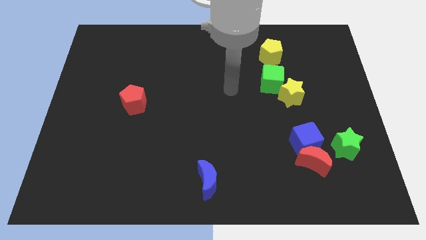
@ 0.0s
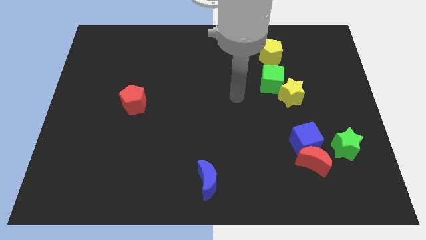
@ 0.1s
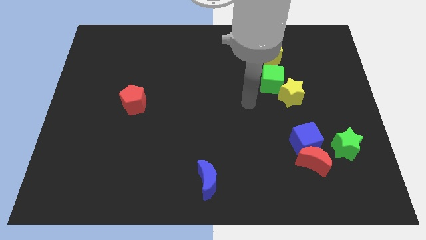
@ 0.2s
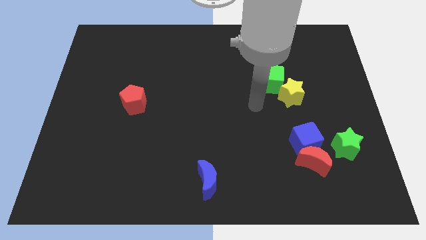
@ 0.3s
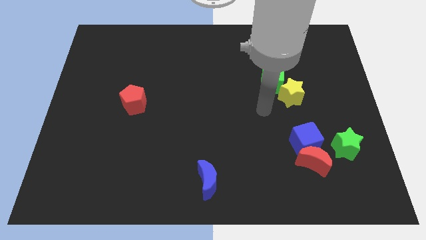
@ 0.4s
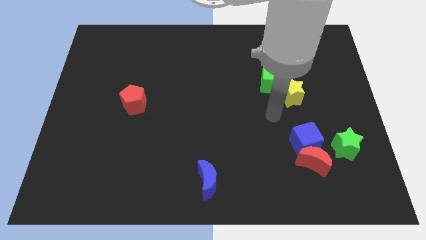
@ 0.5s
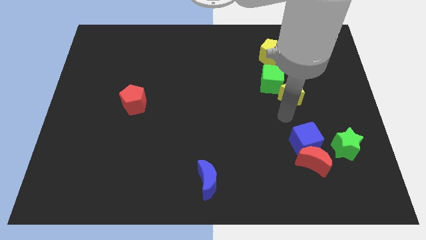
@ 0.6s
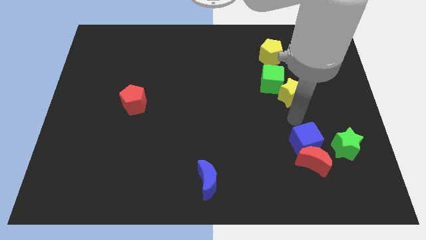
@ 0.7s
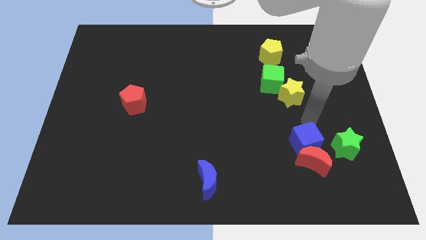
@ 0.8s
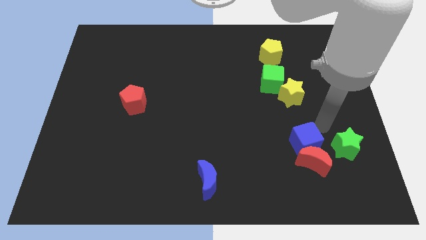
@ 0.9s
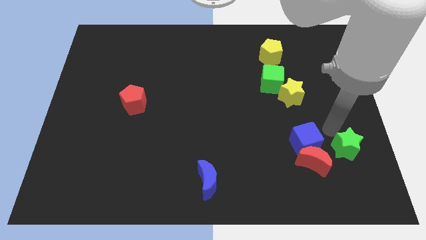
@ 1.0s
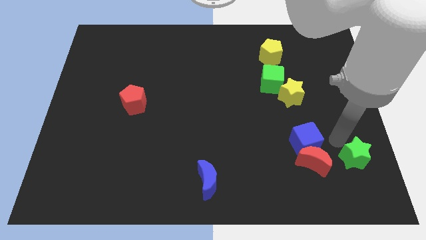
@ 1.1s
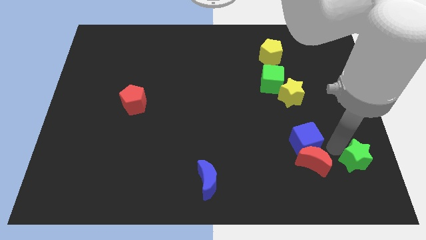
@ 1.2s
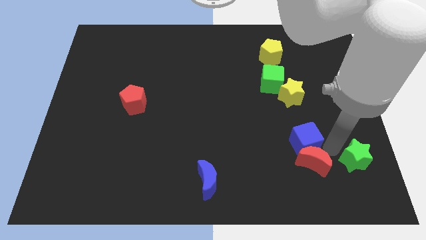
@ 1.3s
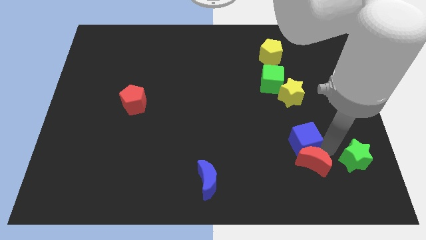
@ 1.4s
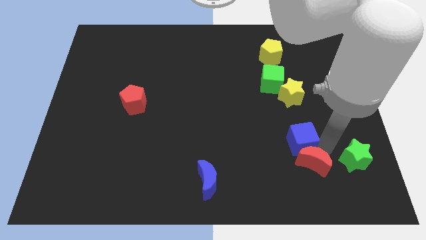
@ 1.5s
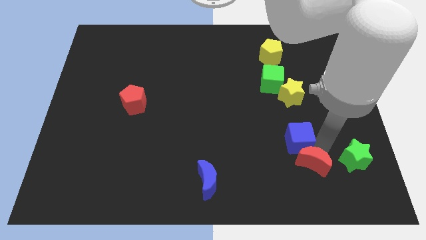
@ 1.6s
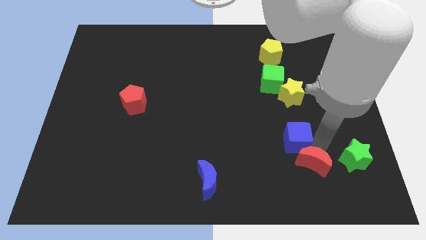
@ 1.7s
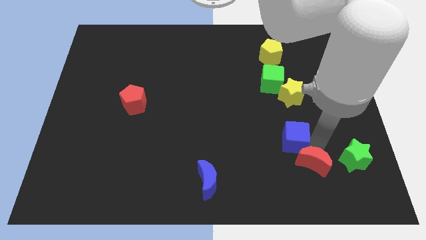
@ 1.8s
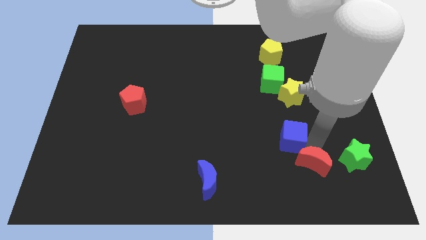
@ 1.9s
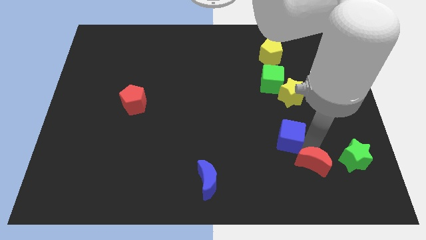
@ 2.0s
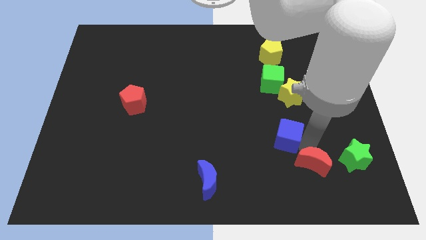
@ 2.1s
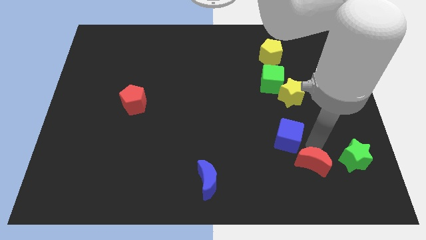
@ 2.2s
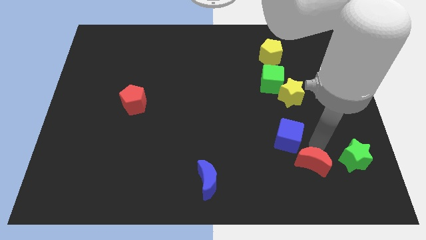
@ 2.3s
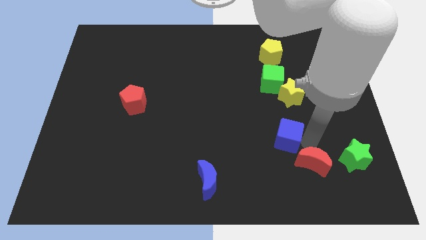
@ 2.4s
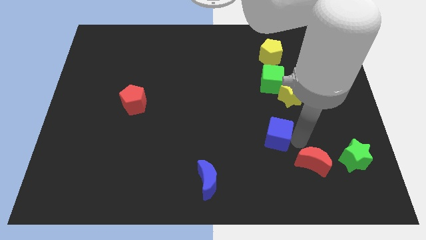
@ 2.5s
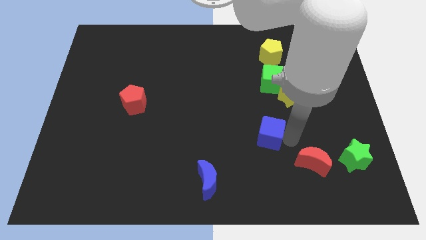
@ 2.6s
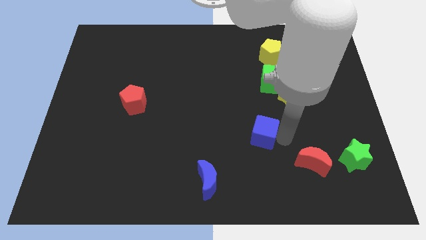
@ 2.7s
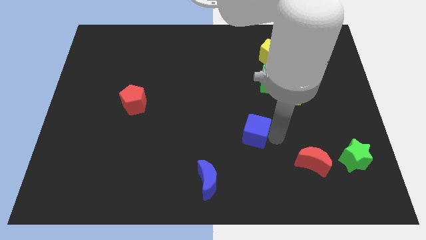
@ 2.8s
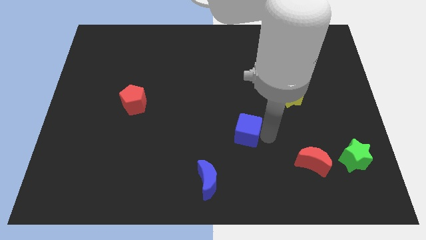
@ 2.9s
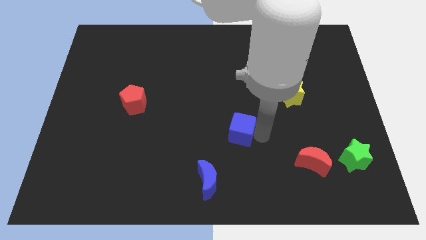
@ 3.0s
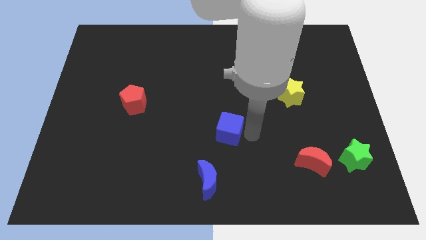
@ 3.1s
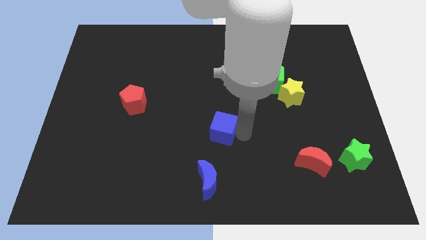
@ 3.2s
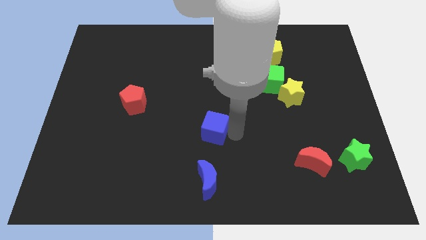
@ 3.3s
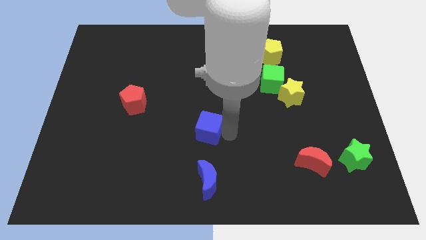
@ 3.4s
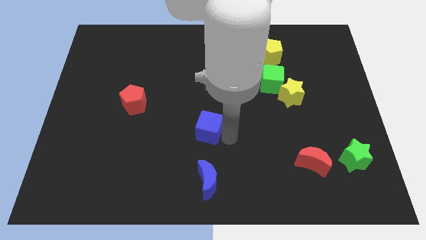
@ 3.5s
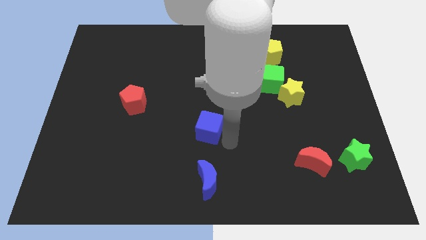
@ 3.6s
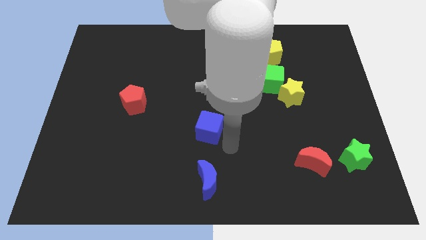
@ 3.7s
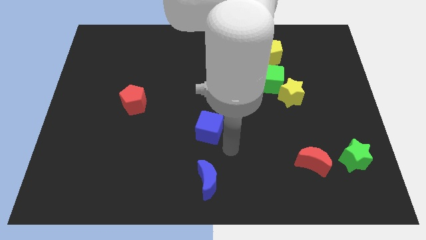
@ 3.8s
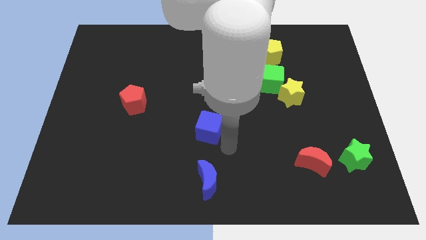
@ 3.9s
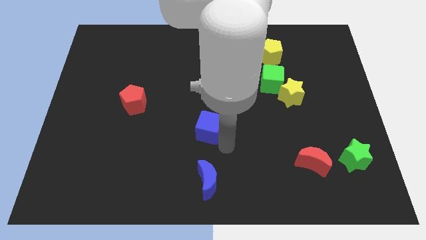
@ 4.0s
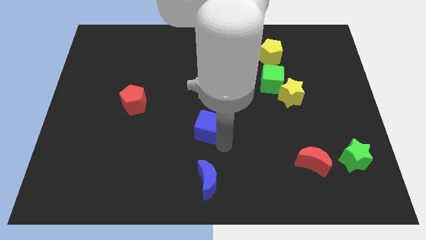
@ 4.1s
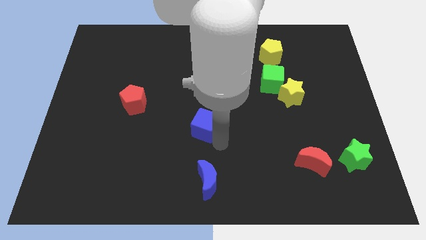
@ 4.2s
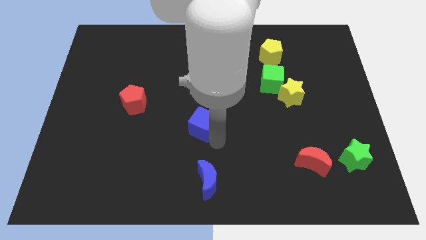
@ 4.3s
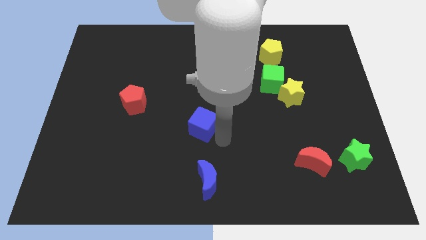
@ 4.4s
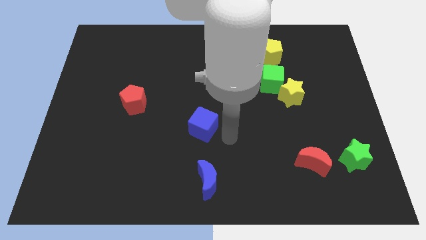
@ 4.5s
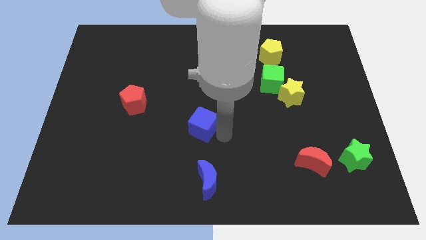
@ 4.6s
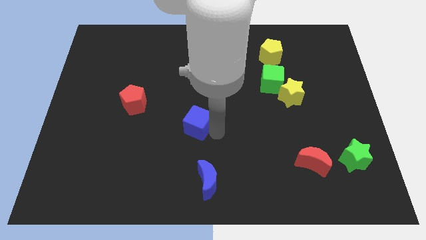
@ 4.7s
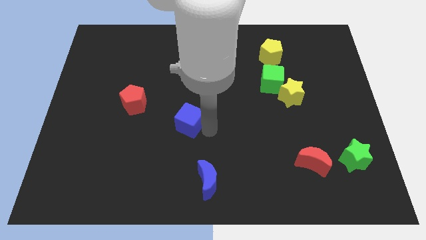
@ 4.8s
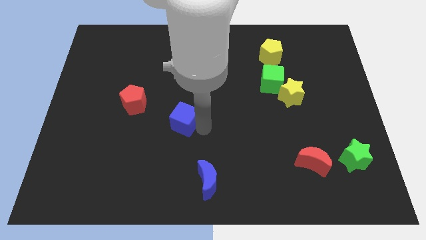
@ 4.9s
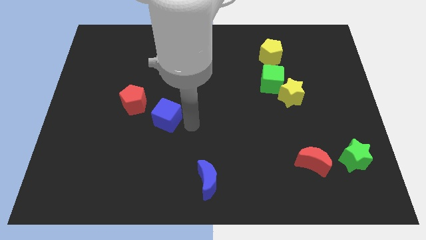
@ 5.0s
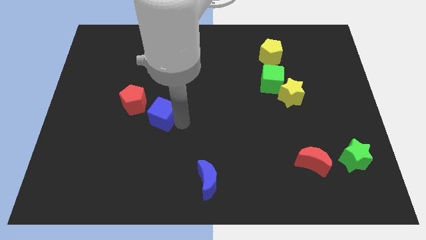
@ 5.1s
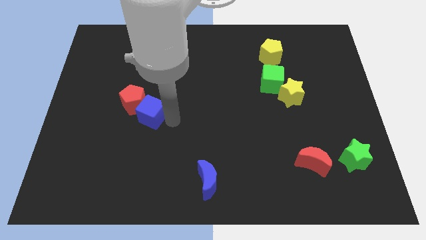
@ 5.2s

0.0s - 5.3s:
slide the blue cube towards the red pentagon

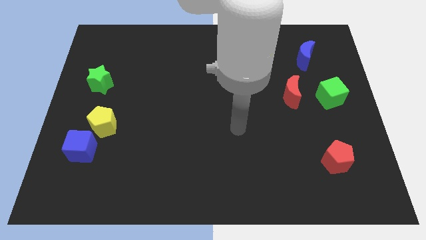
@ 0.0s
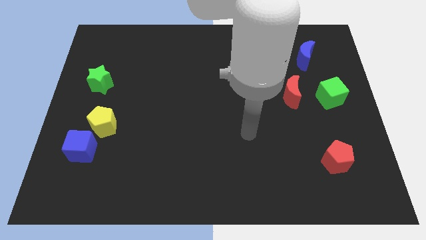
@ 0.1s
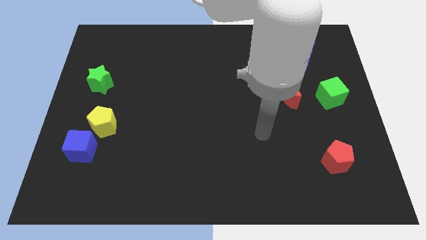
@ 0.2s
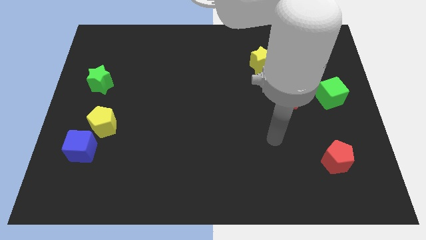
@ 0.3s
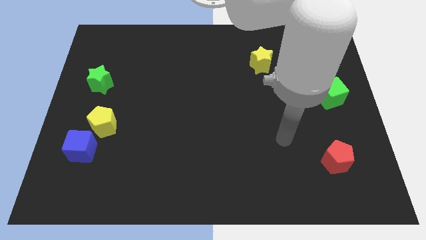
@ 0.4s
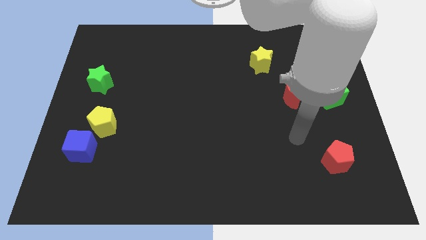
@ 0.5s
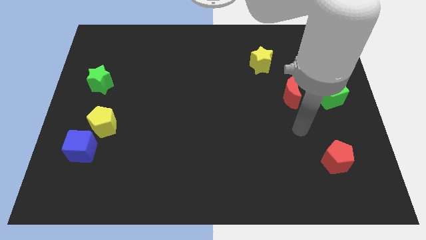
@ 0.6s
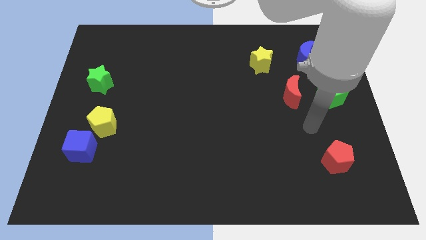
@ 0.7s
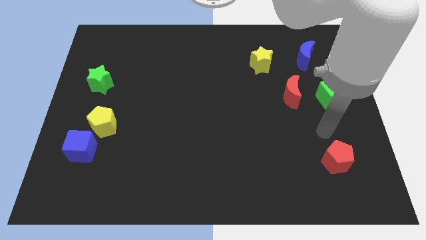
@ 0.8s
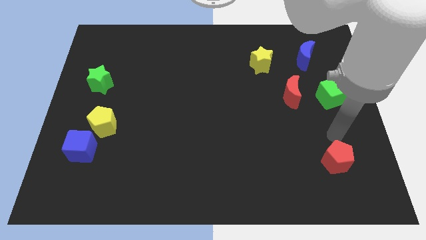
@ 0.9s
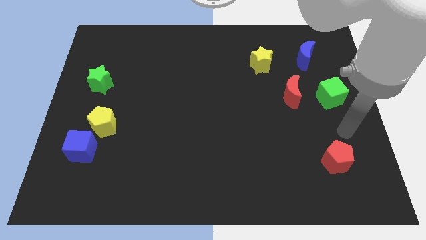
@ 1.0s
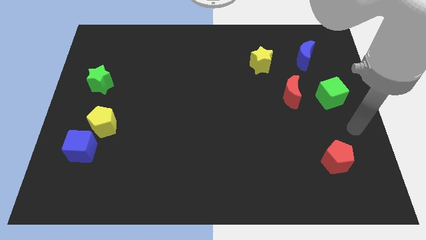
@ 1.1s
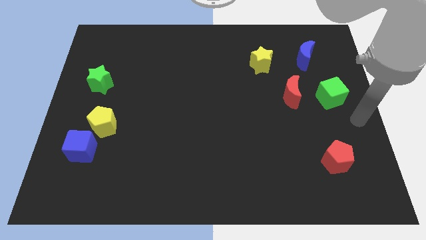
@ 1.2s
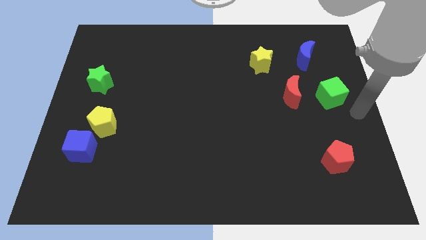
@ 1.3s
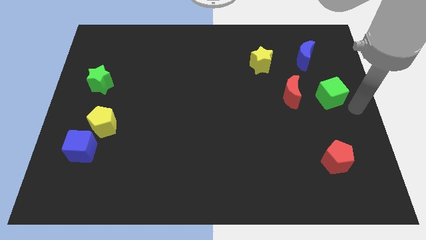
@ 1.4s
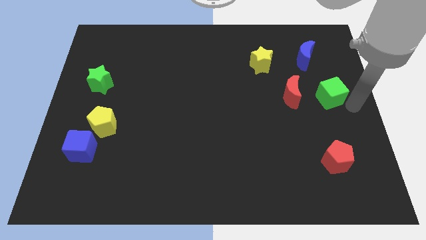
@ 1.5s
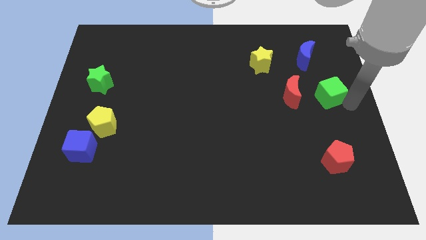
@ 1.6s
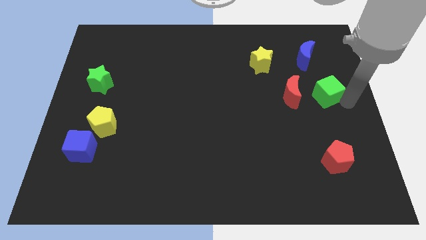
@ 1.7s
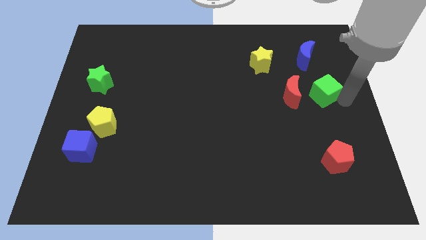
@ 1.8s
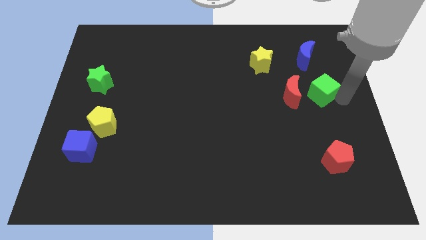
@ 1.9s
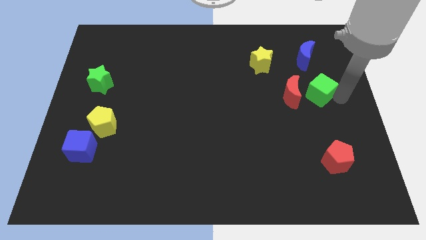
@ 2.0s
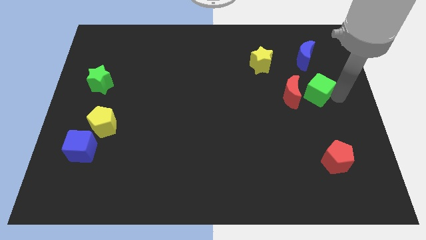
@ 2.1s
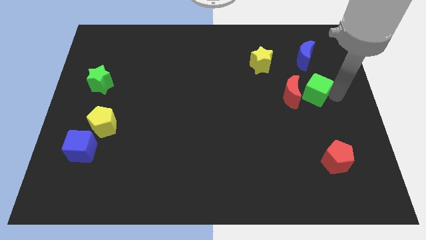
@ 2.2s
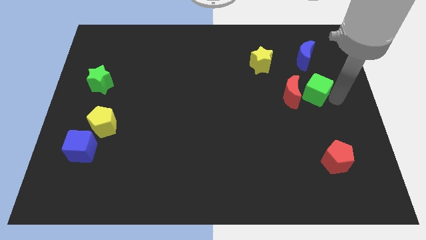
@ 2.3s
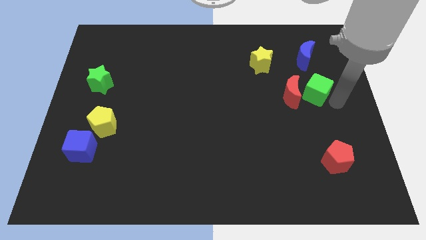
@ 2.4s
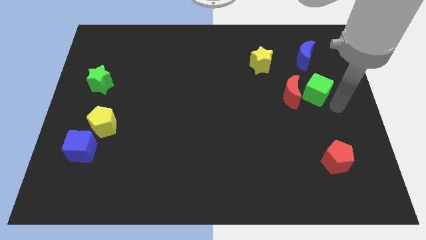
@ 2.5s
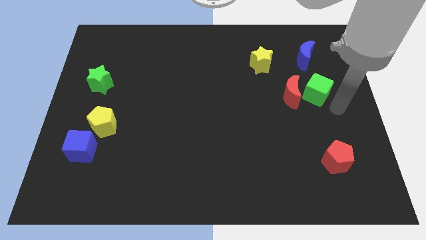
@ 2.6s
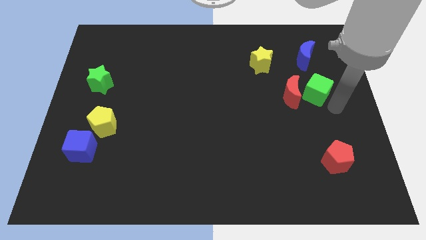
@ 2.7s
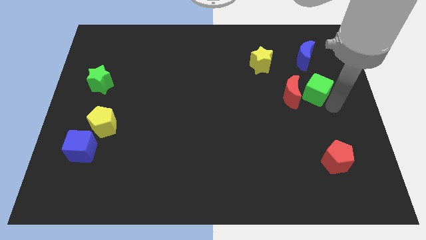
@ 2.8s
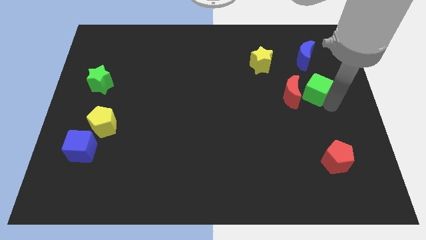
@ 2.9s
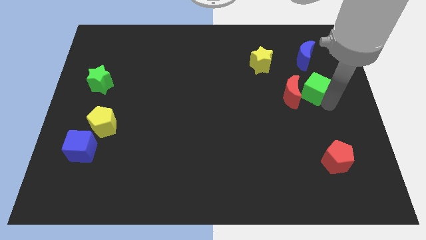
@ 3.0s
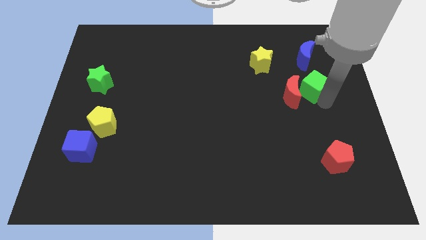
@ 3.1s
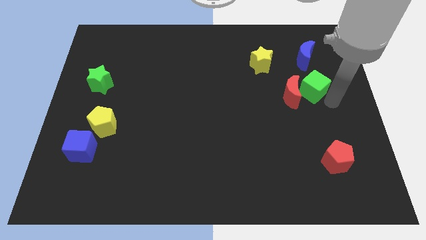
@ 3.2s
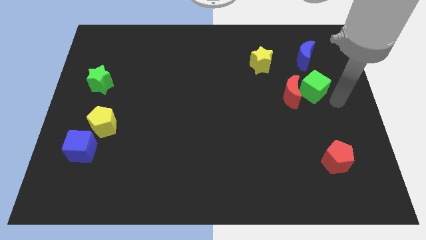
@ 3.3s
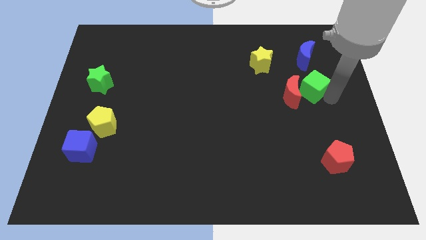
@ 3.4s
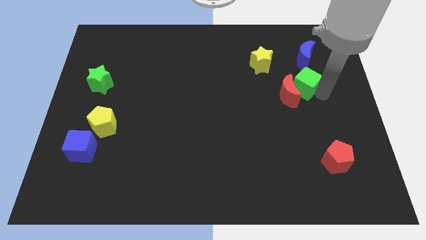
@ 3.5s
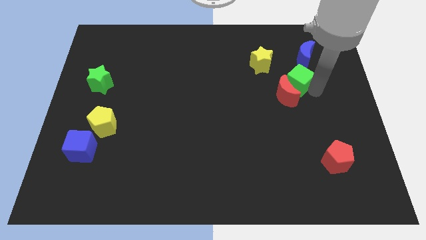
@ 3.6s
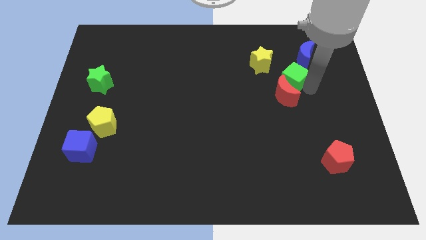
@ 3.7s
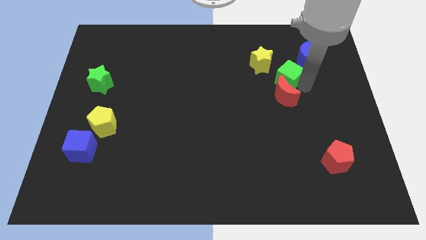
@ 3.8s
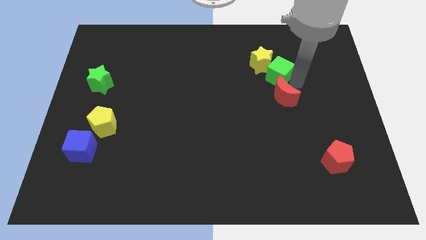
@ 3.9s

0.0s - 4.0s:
slide the green cube next to the yellow star
